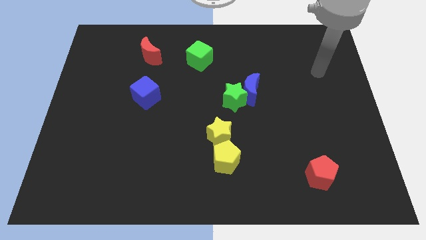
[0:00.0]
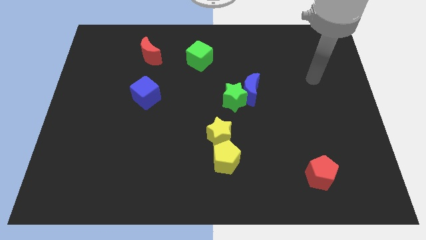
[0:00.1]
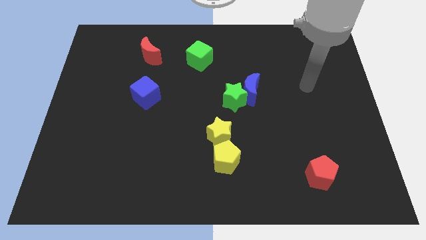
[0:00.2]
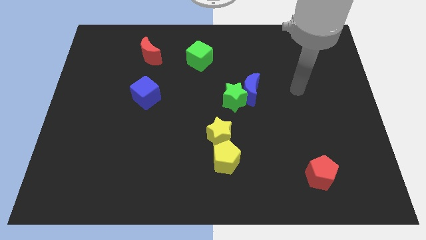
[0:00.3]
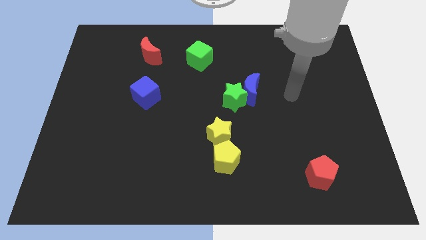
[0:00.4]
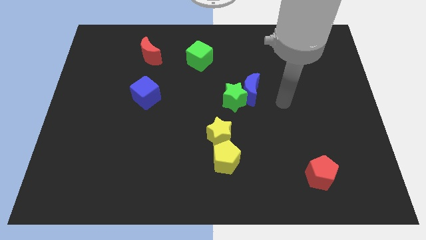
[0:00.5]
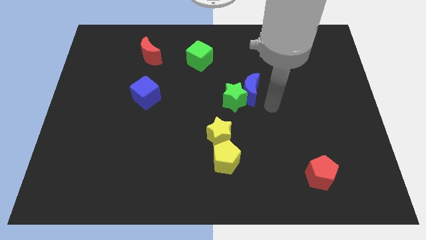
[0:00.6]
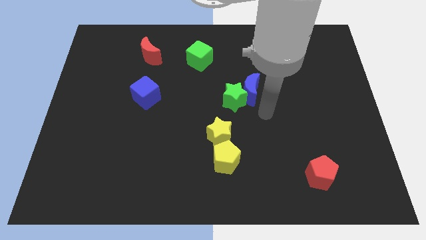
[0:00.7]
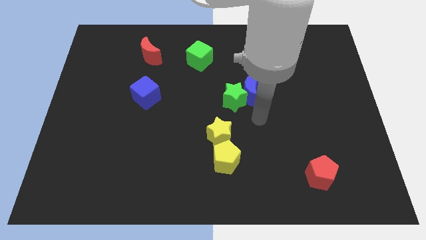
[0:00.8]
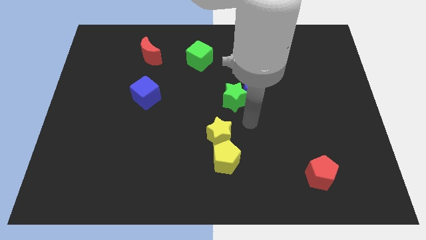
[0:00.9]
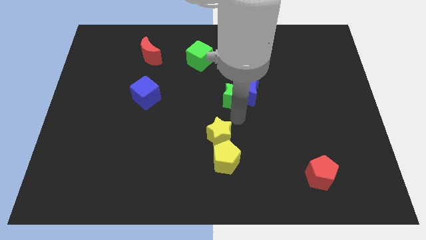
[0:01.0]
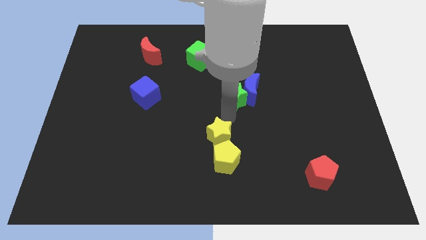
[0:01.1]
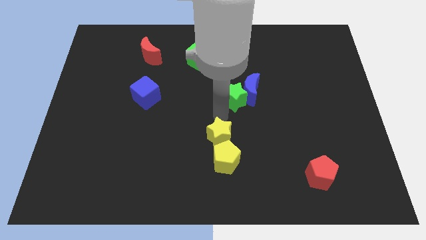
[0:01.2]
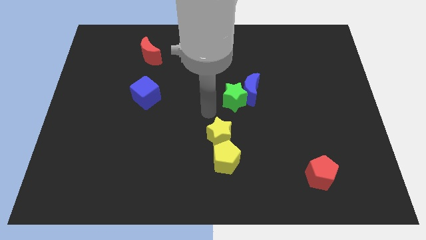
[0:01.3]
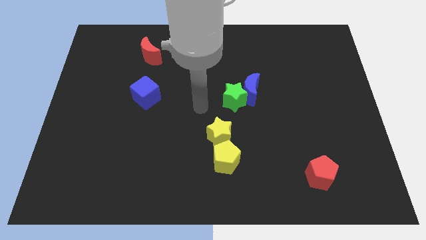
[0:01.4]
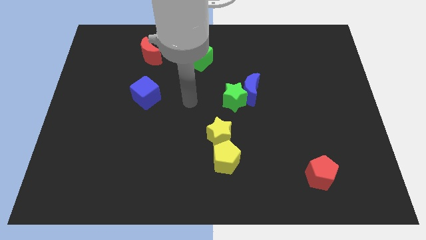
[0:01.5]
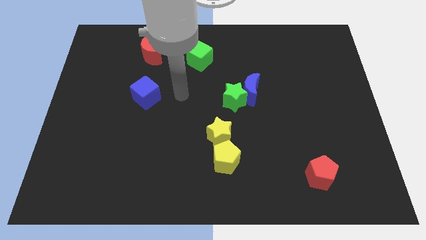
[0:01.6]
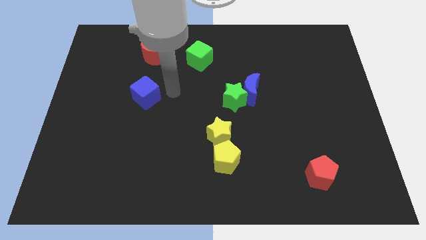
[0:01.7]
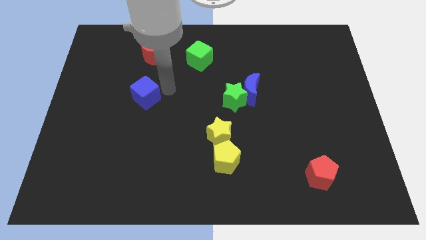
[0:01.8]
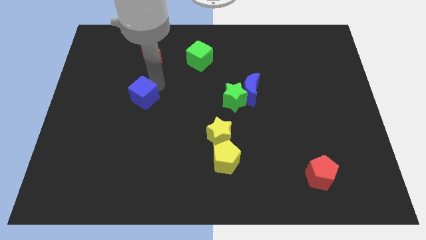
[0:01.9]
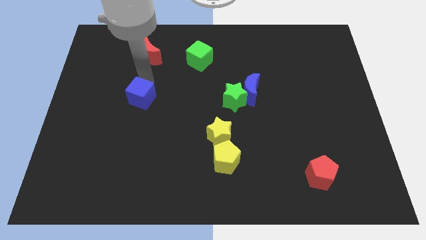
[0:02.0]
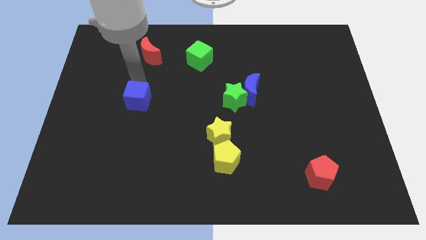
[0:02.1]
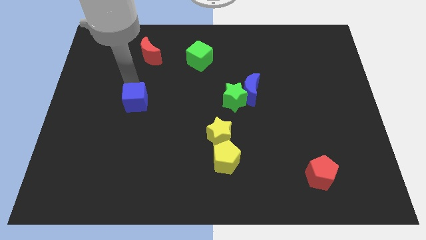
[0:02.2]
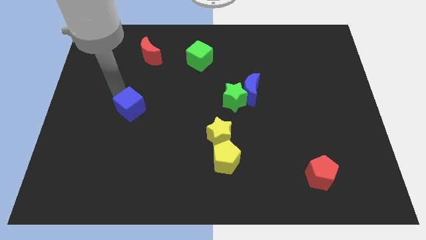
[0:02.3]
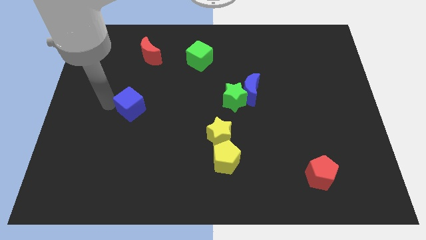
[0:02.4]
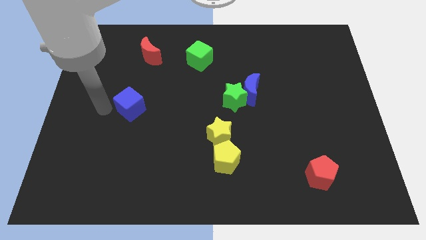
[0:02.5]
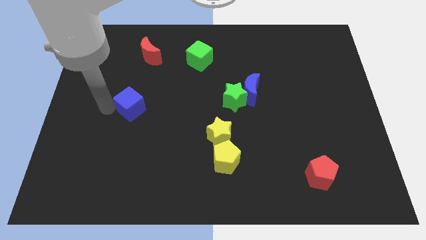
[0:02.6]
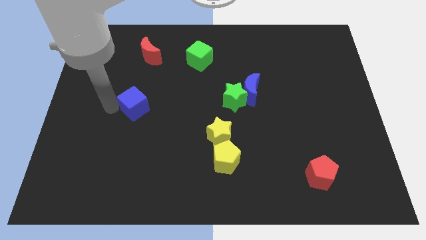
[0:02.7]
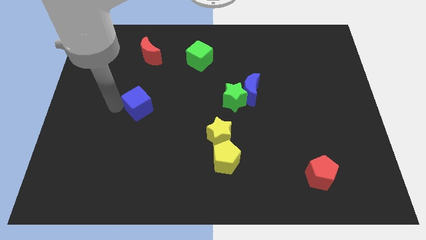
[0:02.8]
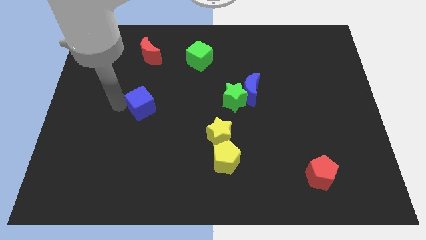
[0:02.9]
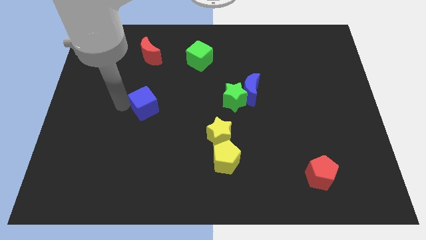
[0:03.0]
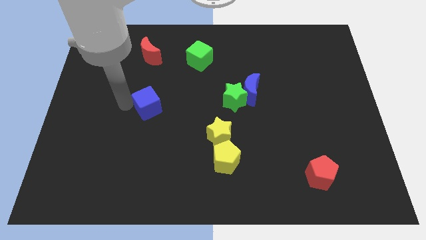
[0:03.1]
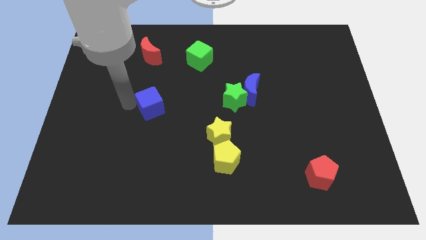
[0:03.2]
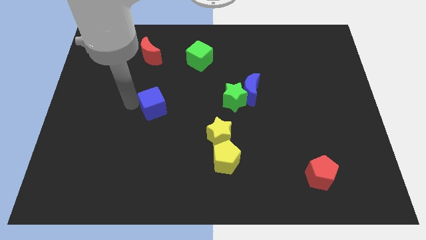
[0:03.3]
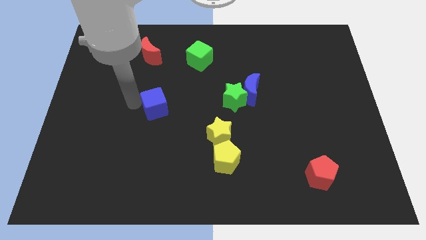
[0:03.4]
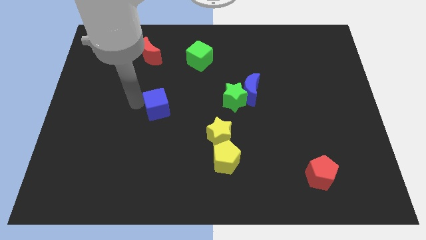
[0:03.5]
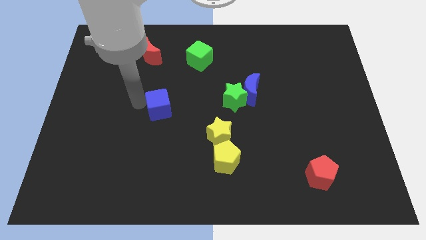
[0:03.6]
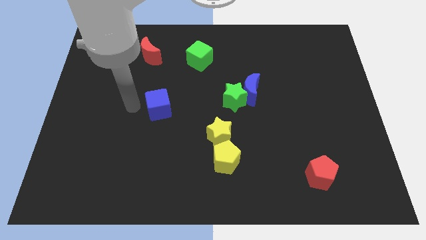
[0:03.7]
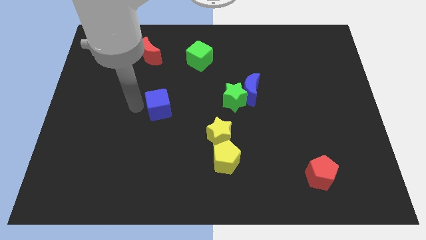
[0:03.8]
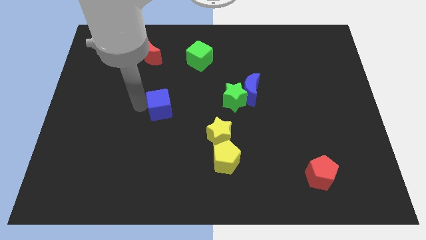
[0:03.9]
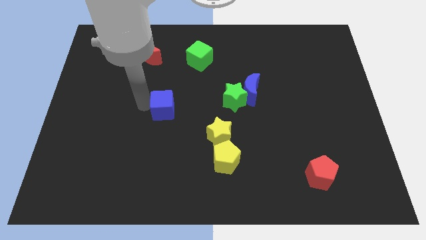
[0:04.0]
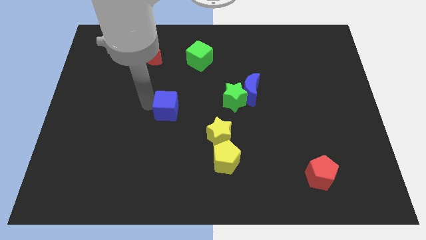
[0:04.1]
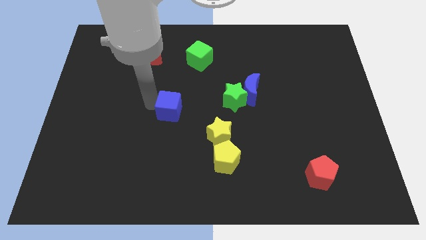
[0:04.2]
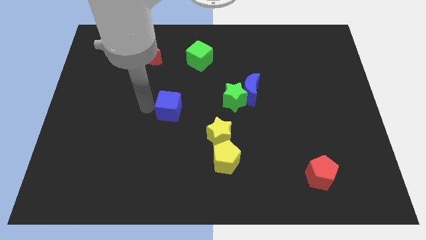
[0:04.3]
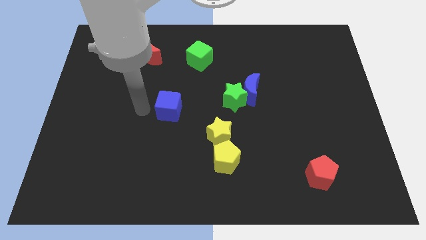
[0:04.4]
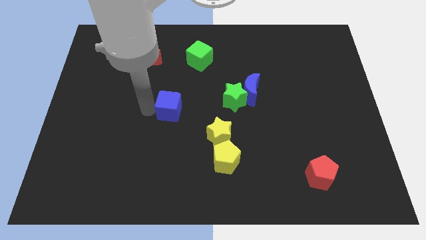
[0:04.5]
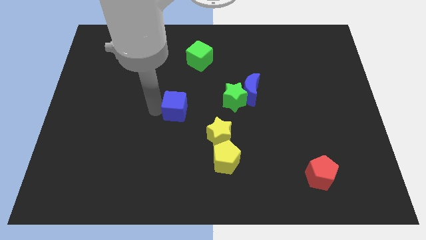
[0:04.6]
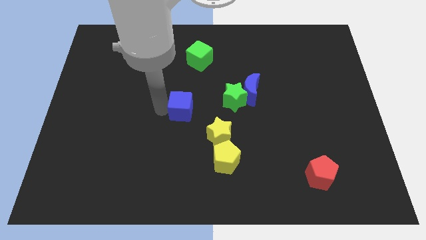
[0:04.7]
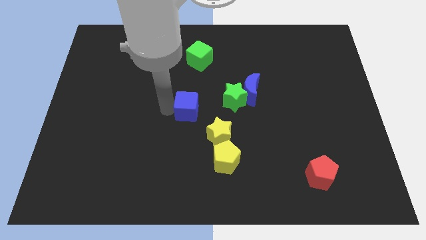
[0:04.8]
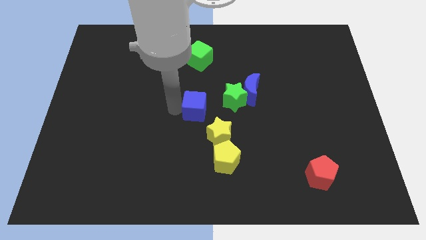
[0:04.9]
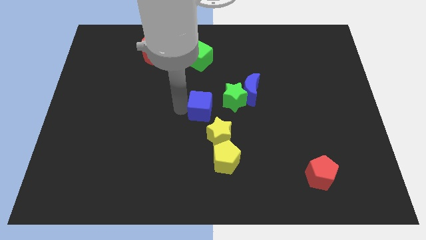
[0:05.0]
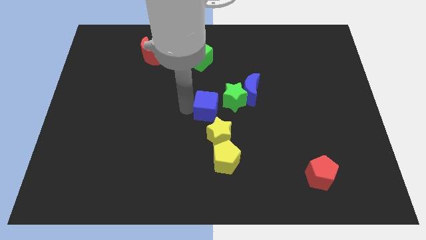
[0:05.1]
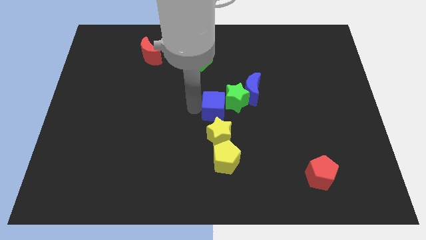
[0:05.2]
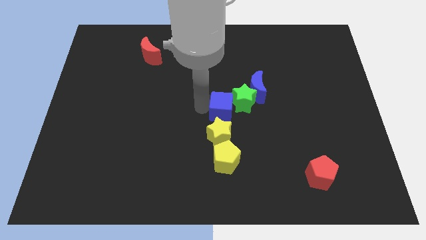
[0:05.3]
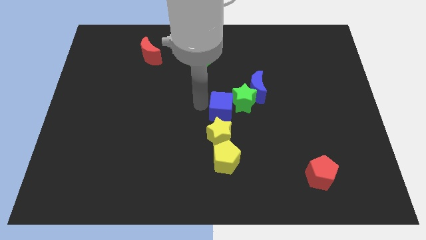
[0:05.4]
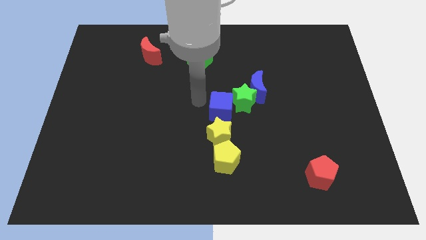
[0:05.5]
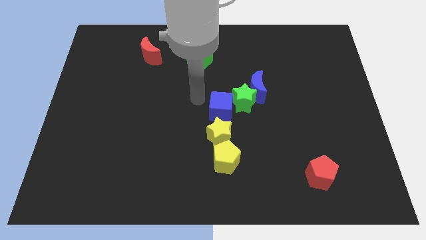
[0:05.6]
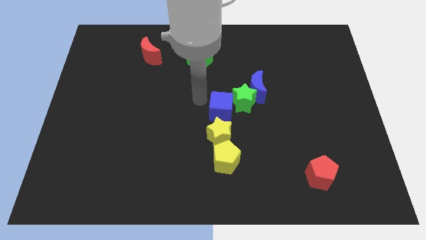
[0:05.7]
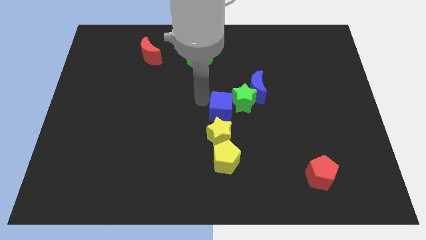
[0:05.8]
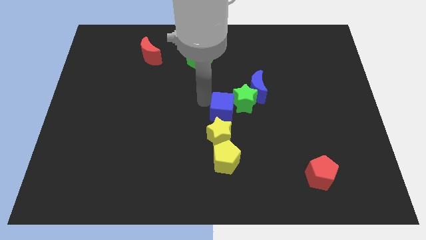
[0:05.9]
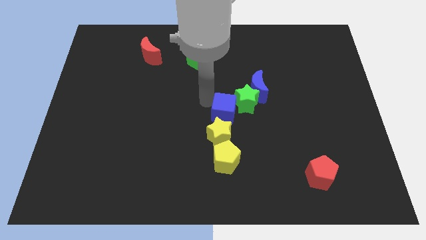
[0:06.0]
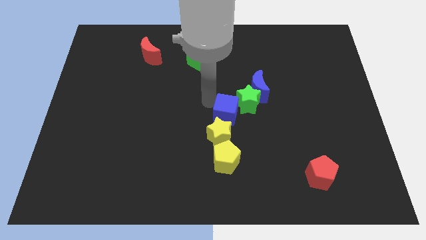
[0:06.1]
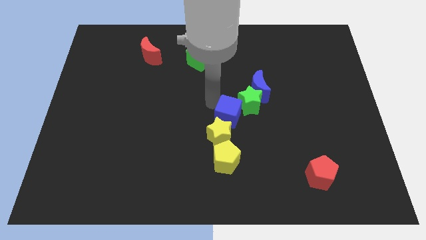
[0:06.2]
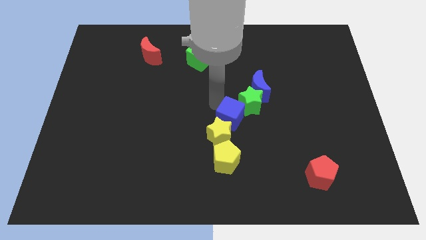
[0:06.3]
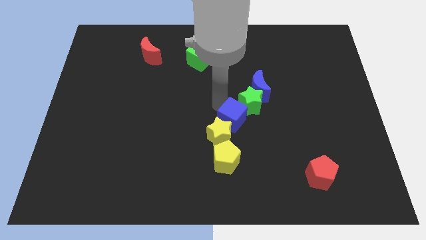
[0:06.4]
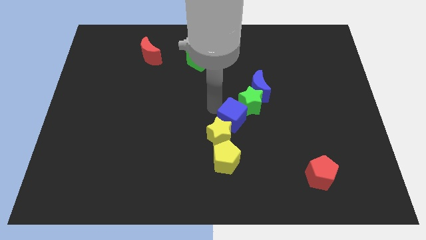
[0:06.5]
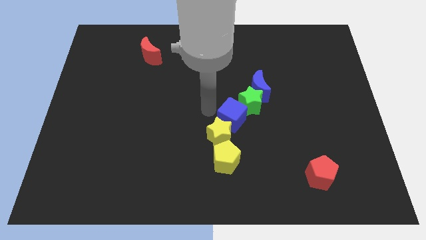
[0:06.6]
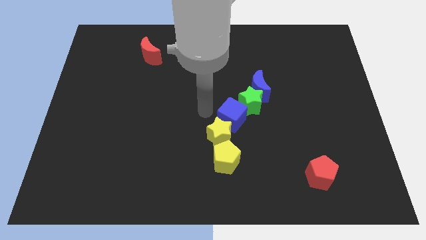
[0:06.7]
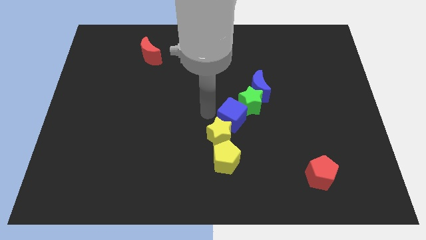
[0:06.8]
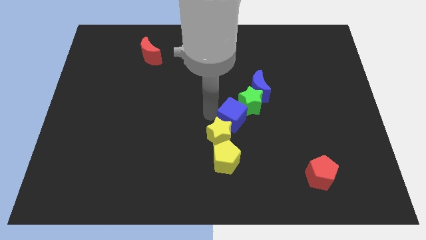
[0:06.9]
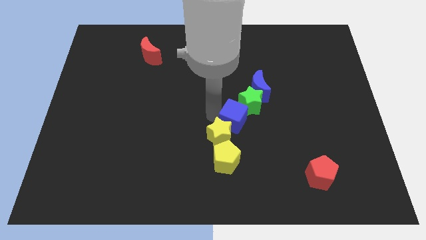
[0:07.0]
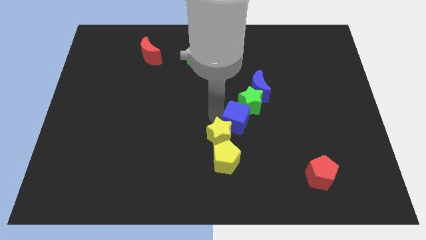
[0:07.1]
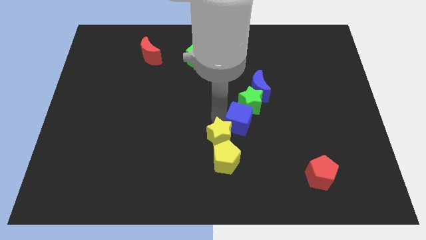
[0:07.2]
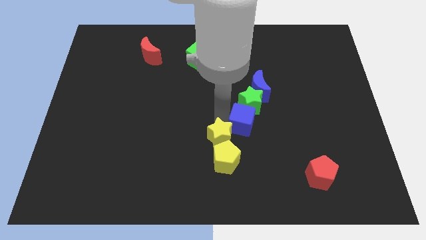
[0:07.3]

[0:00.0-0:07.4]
move the blue cube to the bottom side of the blue moon

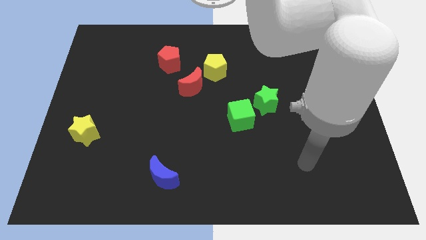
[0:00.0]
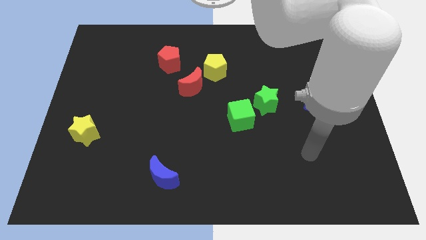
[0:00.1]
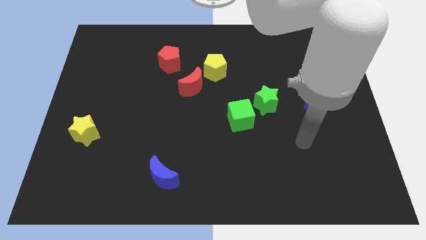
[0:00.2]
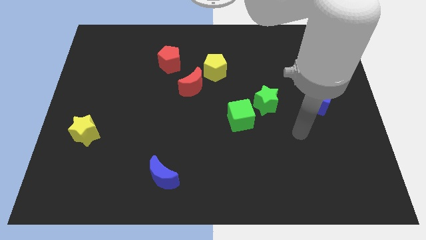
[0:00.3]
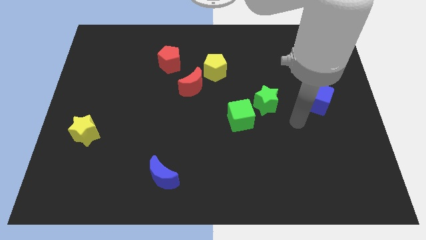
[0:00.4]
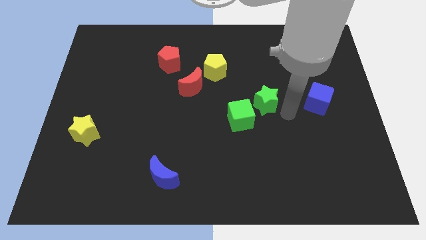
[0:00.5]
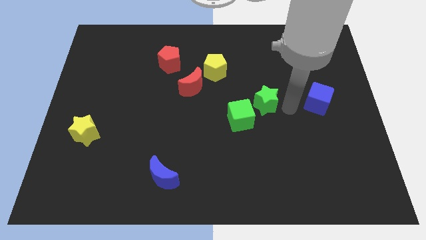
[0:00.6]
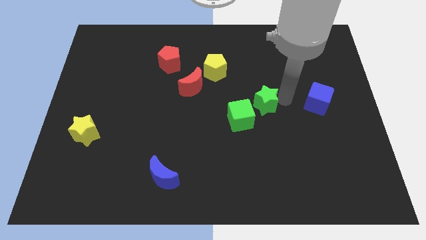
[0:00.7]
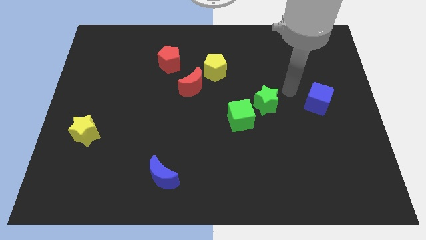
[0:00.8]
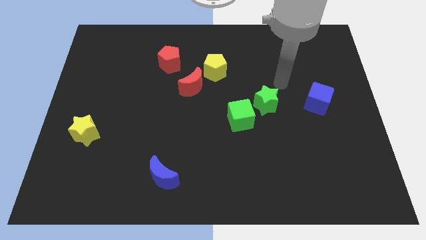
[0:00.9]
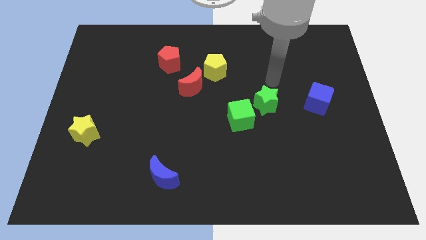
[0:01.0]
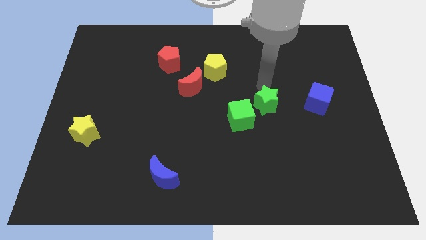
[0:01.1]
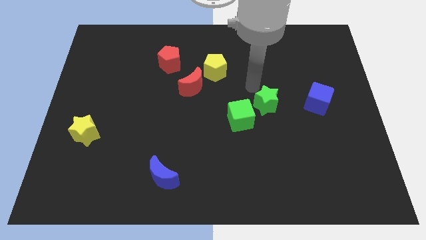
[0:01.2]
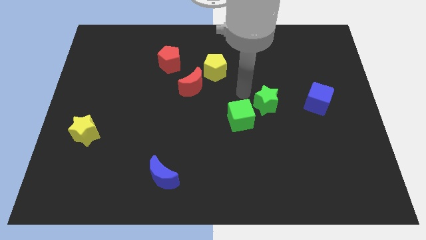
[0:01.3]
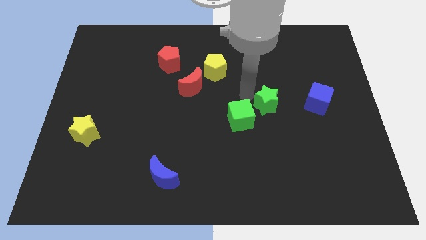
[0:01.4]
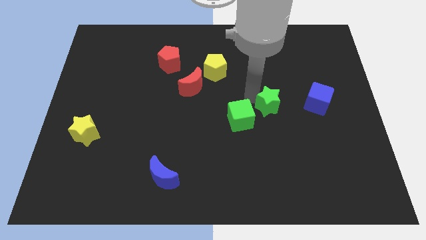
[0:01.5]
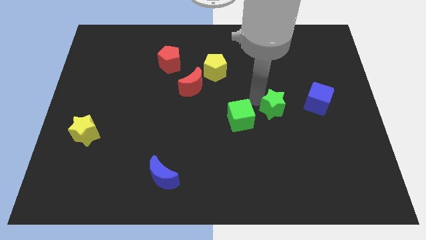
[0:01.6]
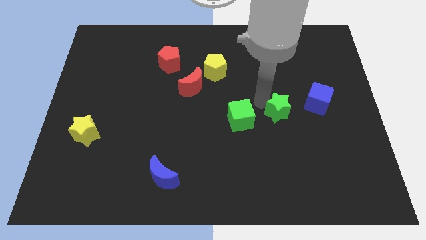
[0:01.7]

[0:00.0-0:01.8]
push the green star to the bottom left side of the blue cube
